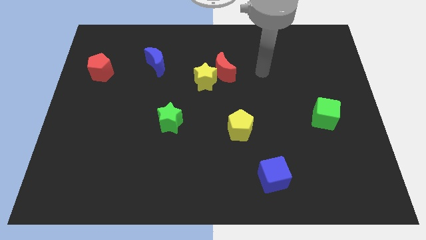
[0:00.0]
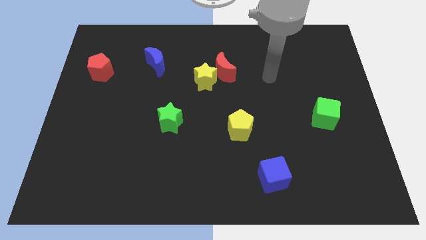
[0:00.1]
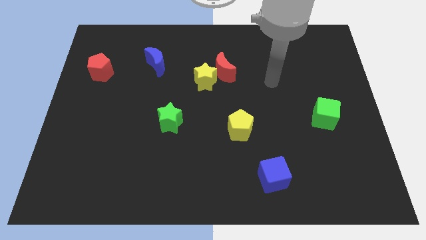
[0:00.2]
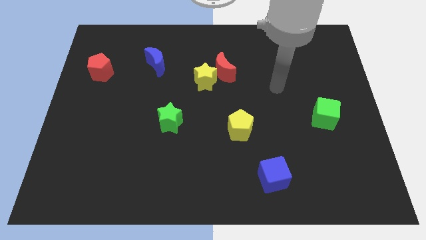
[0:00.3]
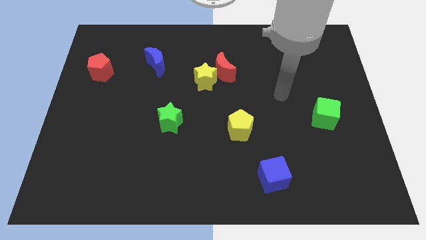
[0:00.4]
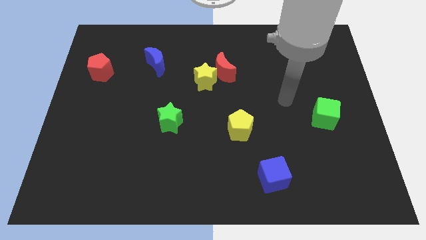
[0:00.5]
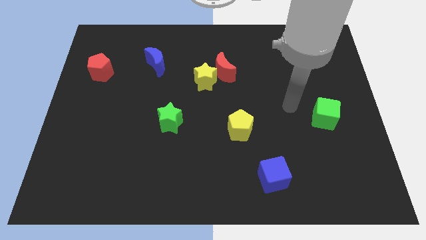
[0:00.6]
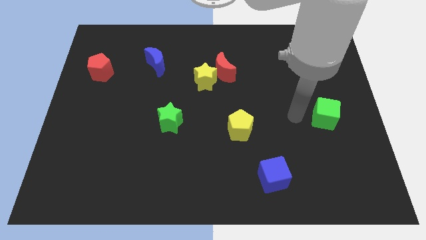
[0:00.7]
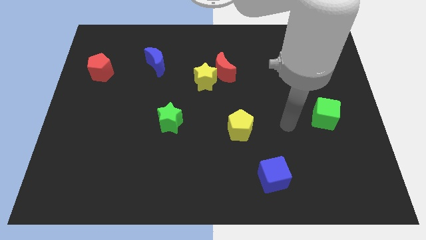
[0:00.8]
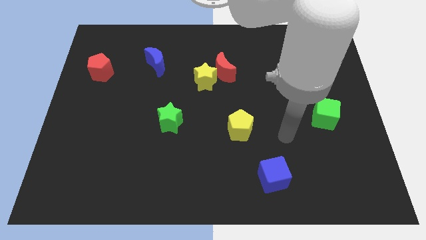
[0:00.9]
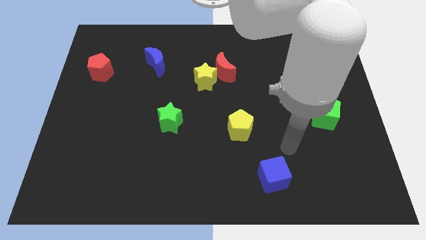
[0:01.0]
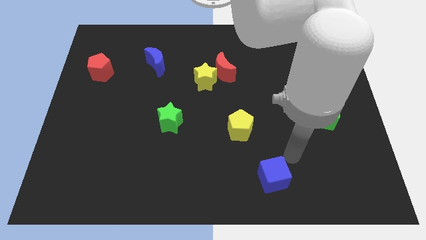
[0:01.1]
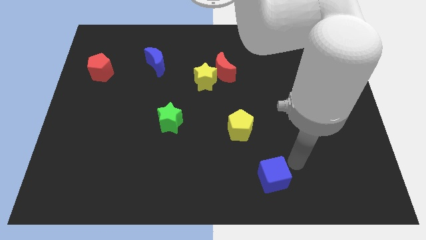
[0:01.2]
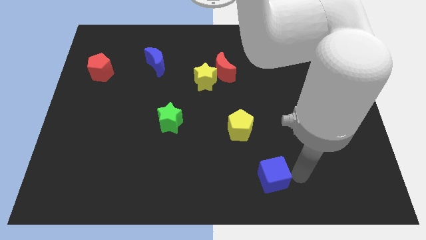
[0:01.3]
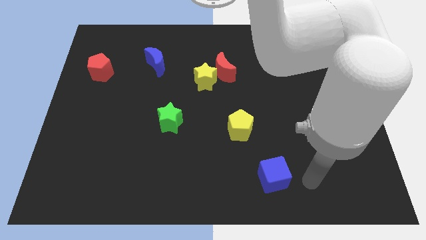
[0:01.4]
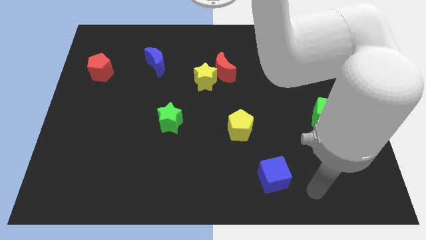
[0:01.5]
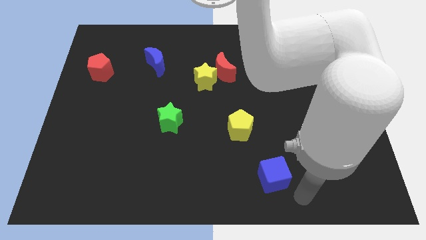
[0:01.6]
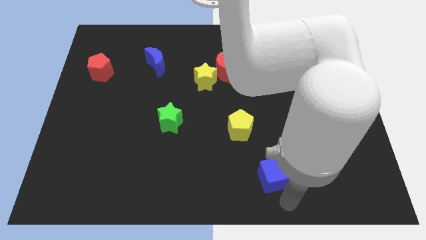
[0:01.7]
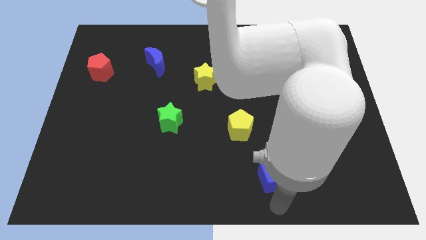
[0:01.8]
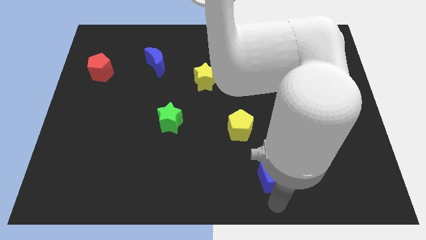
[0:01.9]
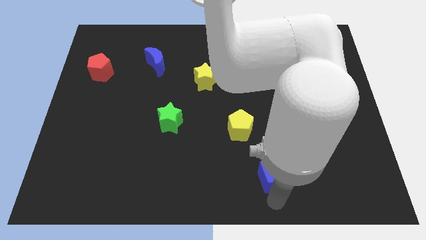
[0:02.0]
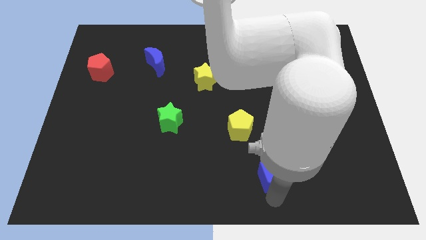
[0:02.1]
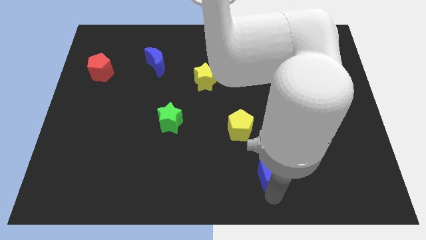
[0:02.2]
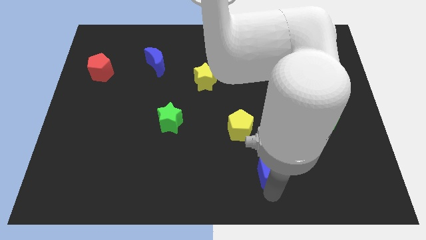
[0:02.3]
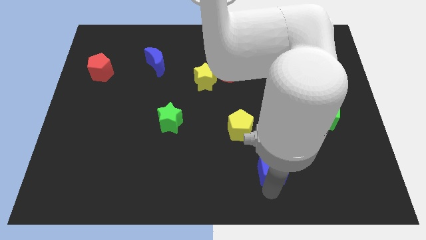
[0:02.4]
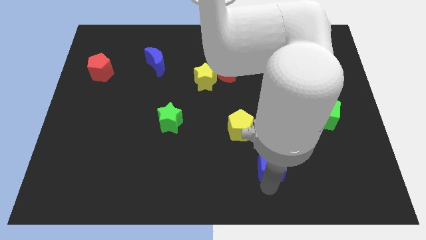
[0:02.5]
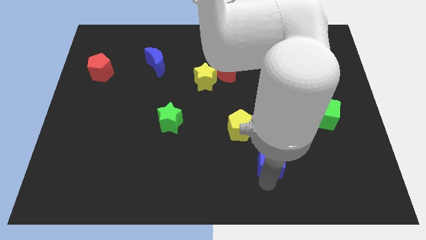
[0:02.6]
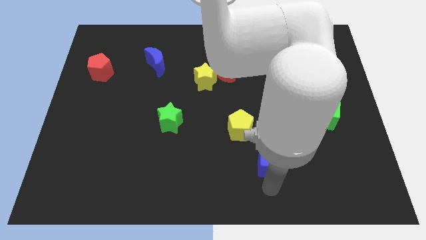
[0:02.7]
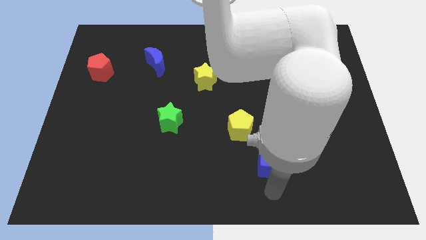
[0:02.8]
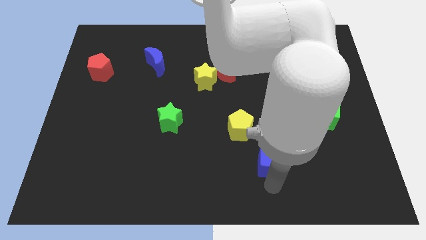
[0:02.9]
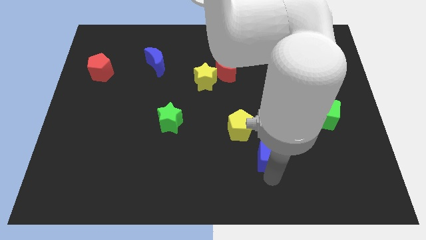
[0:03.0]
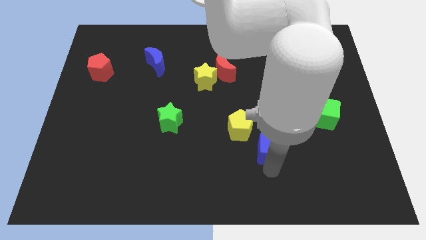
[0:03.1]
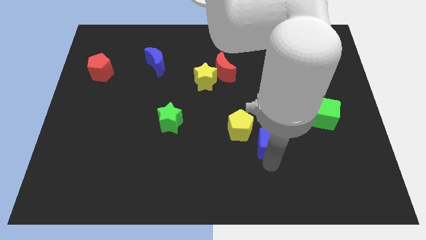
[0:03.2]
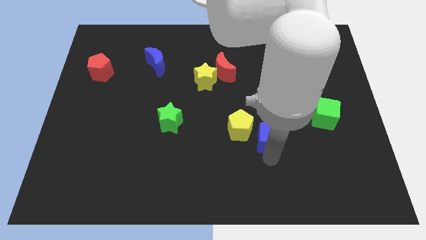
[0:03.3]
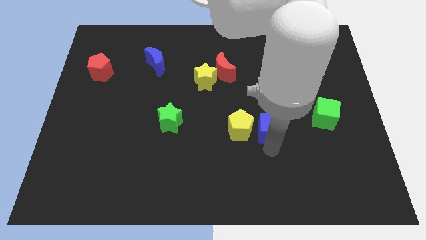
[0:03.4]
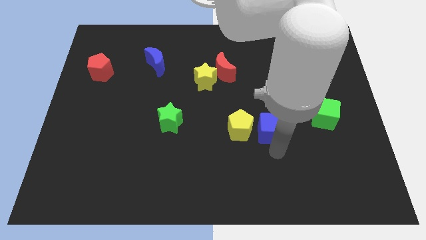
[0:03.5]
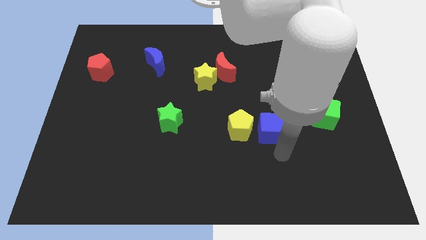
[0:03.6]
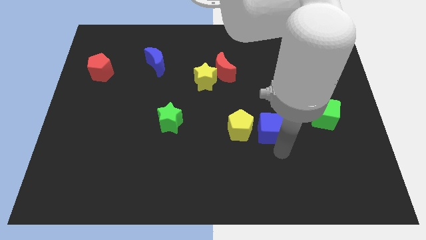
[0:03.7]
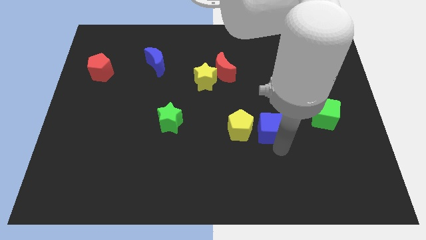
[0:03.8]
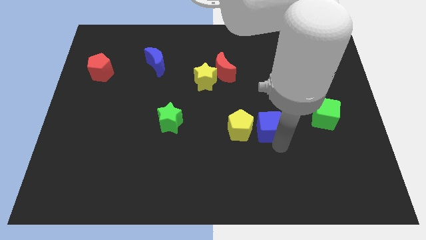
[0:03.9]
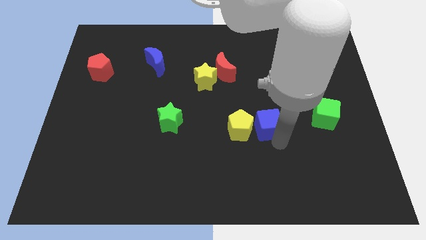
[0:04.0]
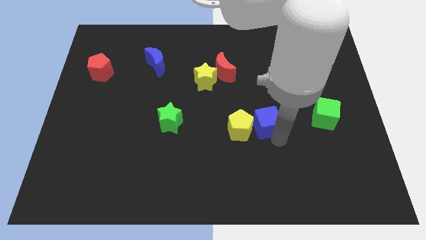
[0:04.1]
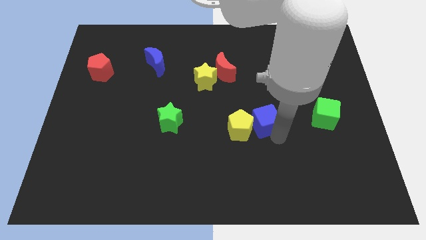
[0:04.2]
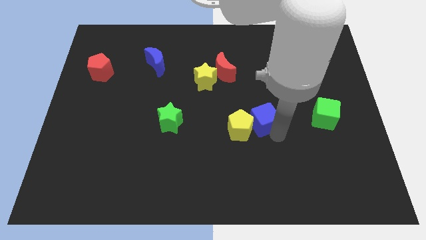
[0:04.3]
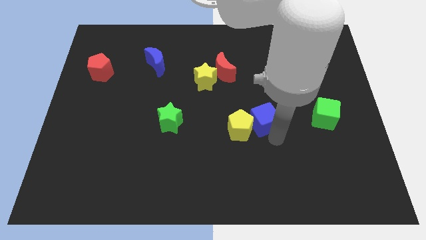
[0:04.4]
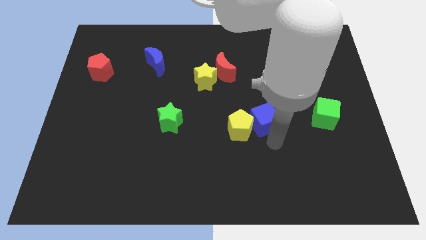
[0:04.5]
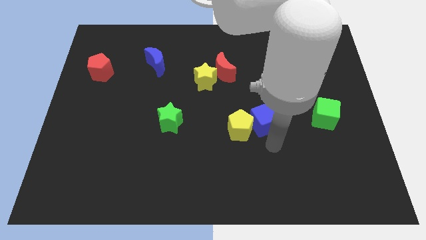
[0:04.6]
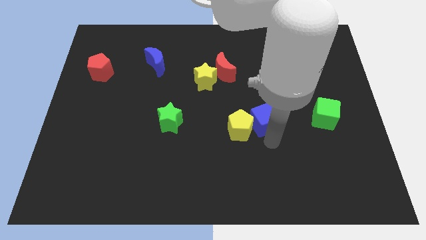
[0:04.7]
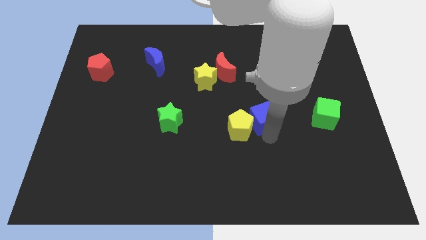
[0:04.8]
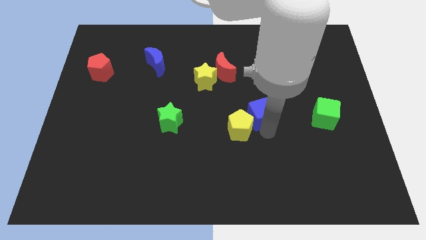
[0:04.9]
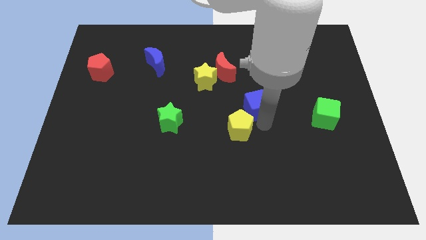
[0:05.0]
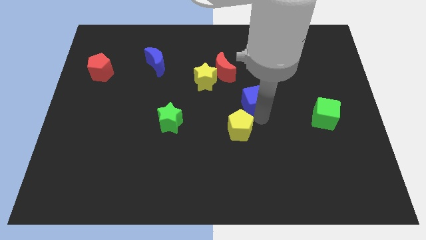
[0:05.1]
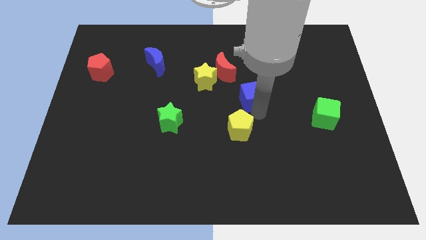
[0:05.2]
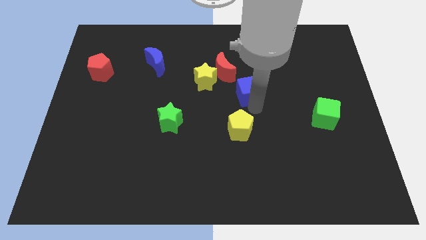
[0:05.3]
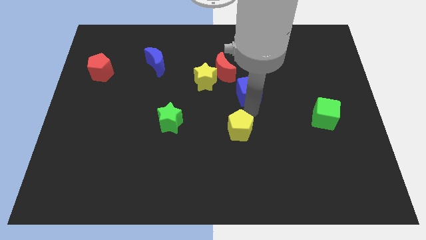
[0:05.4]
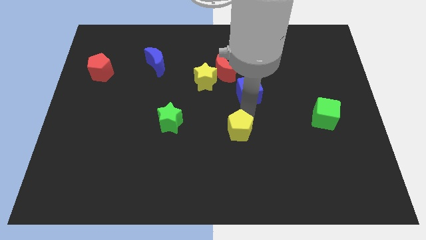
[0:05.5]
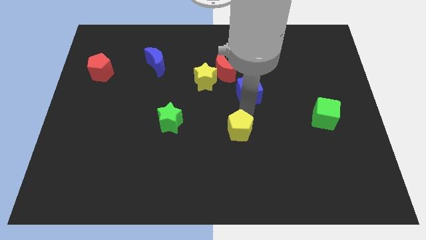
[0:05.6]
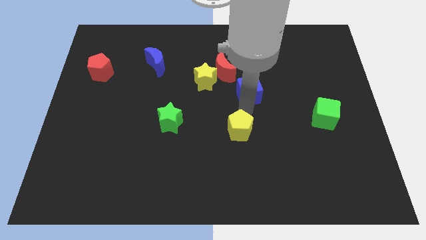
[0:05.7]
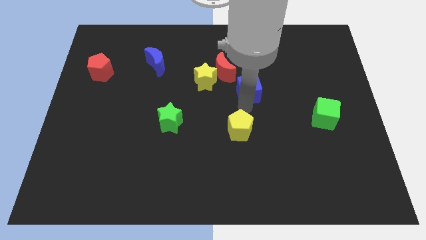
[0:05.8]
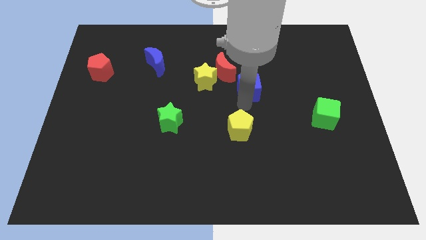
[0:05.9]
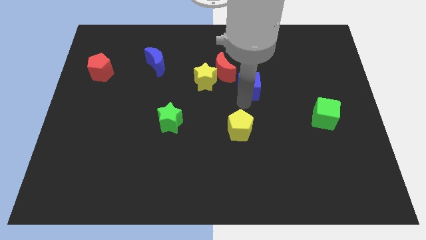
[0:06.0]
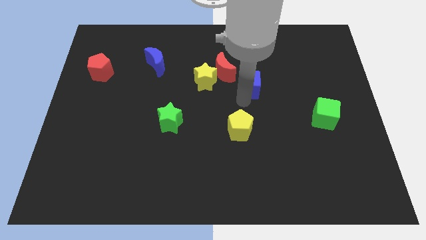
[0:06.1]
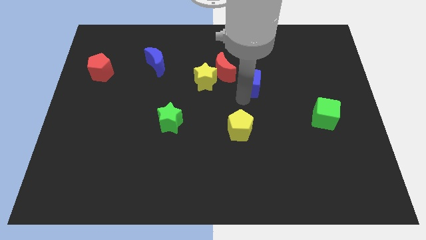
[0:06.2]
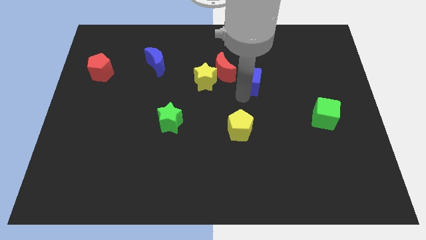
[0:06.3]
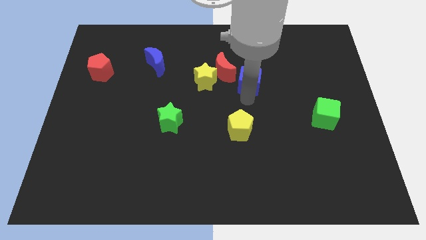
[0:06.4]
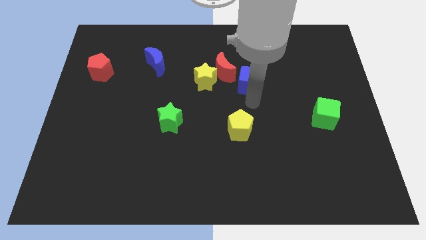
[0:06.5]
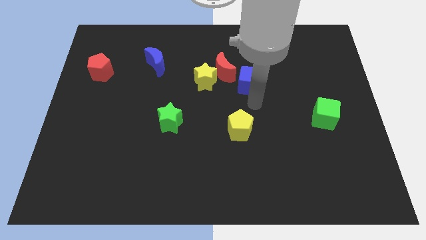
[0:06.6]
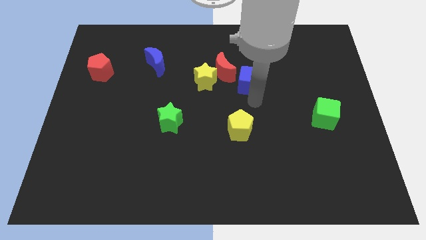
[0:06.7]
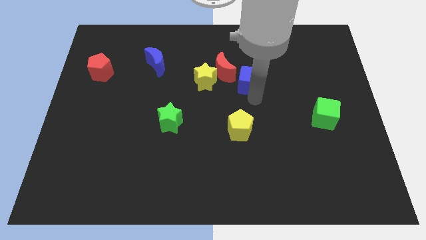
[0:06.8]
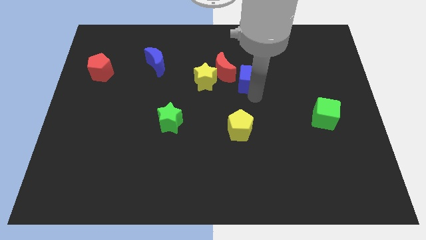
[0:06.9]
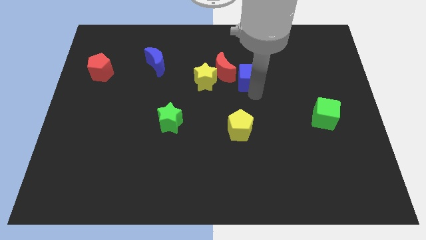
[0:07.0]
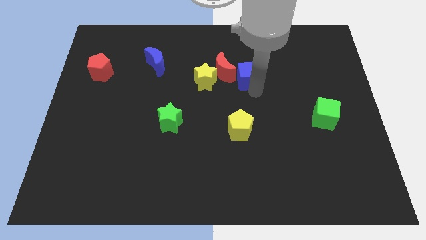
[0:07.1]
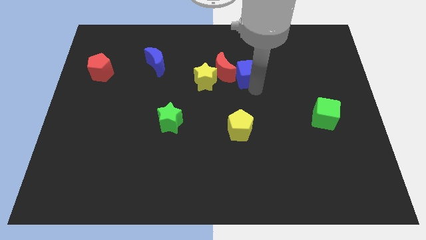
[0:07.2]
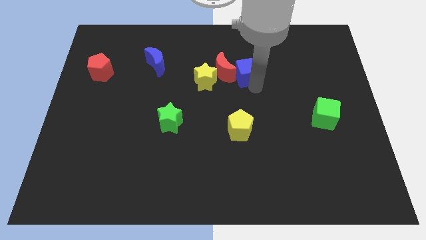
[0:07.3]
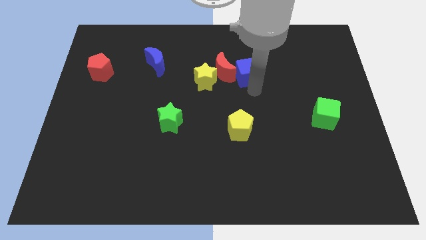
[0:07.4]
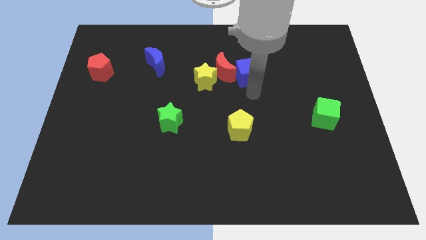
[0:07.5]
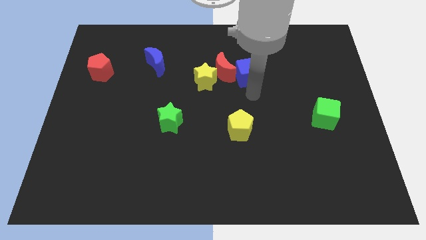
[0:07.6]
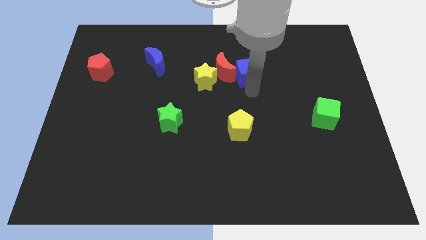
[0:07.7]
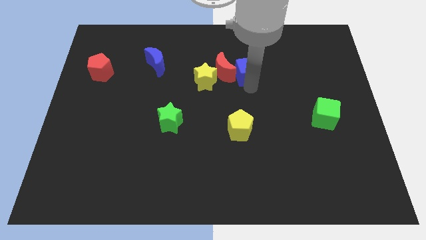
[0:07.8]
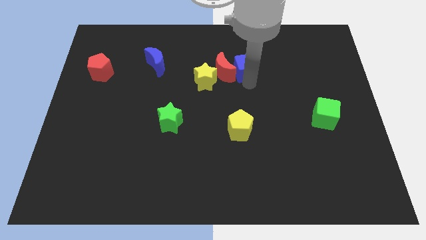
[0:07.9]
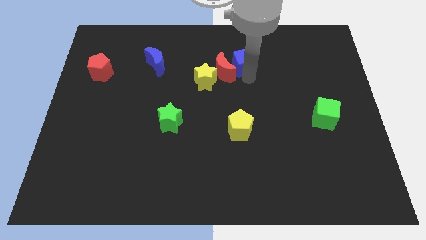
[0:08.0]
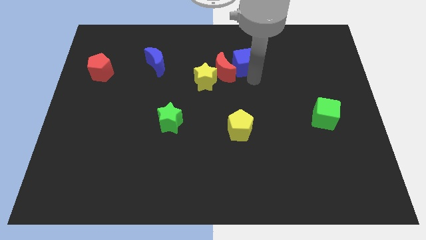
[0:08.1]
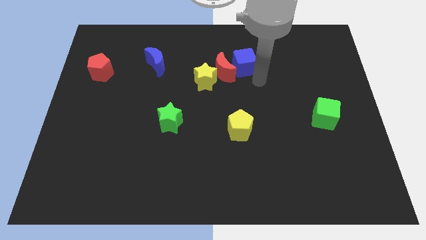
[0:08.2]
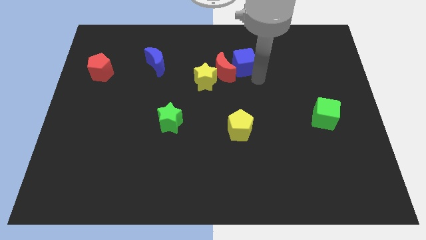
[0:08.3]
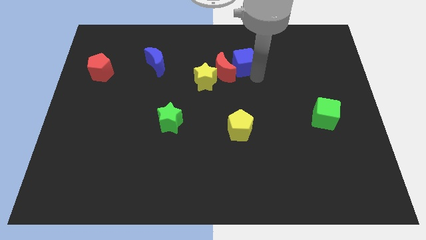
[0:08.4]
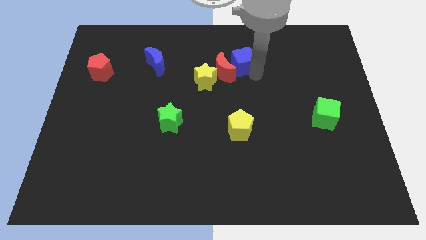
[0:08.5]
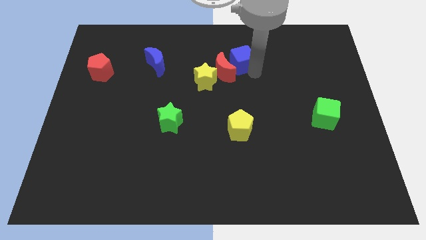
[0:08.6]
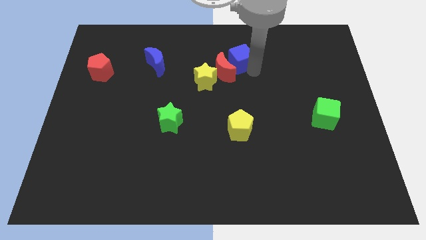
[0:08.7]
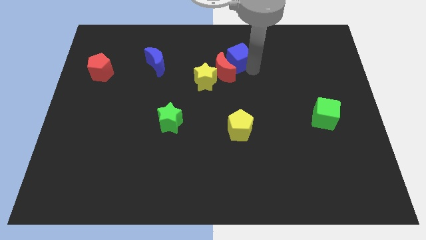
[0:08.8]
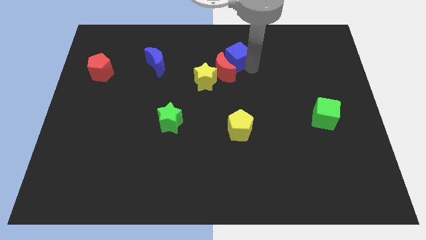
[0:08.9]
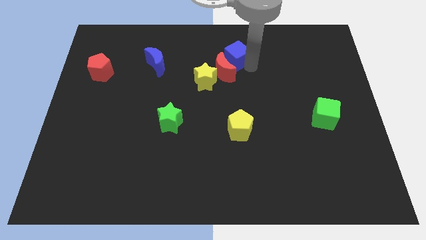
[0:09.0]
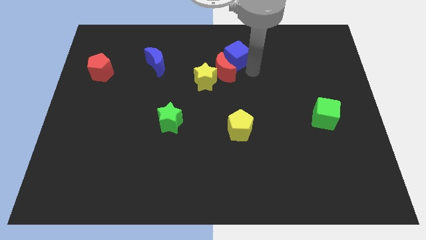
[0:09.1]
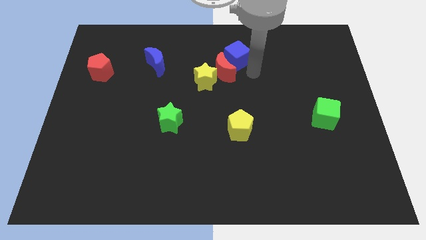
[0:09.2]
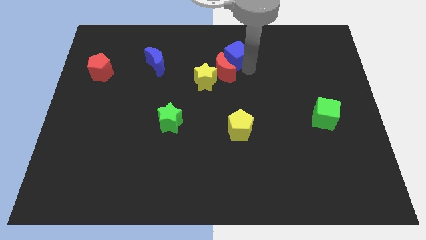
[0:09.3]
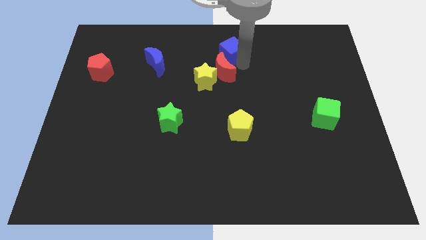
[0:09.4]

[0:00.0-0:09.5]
put the blue cube to the towards your base
